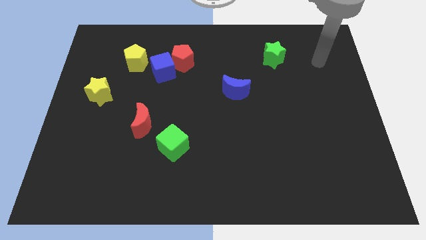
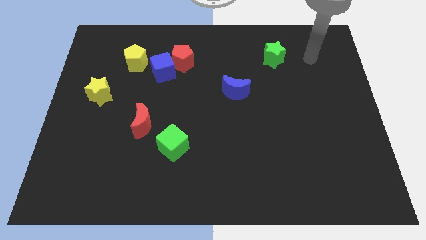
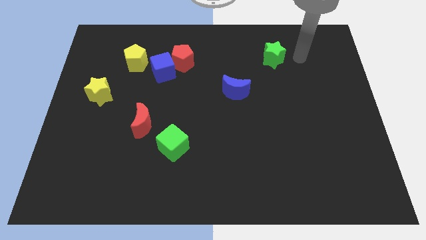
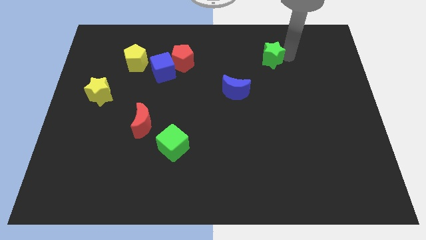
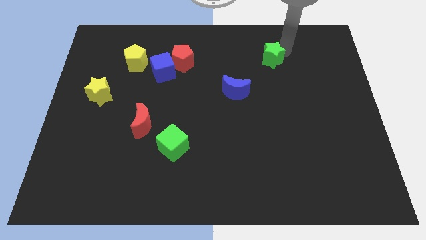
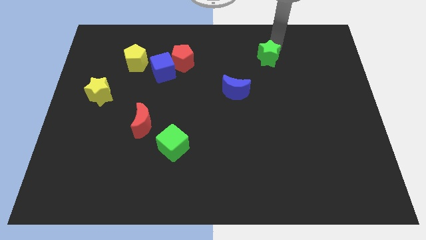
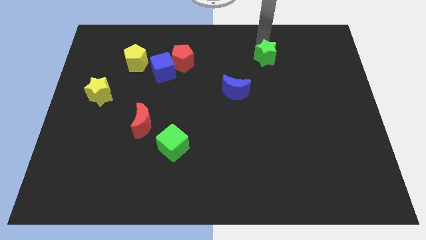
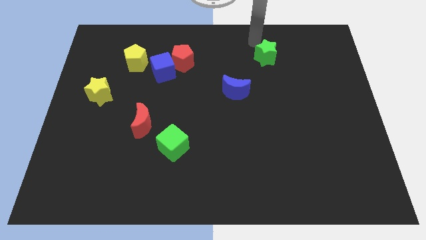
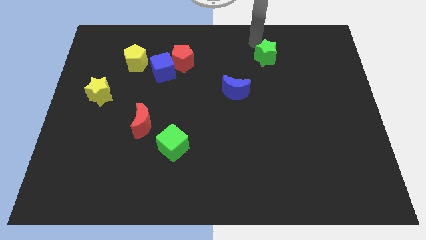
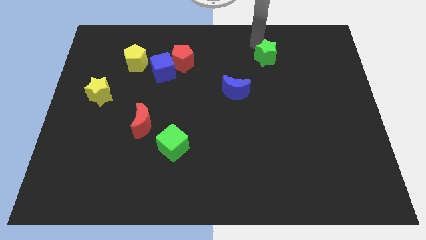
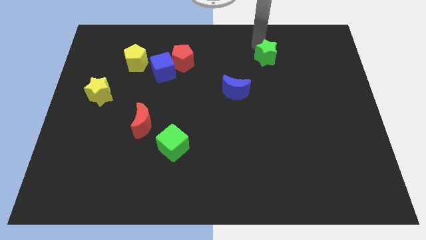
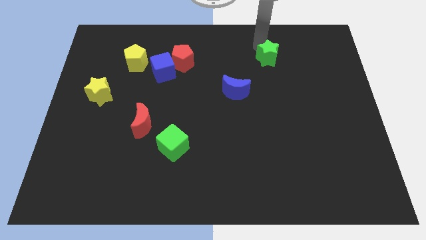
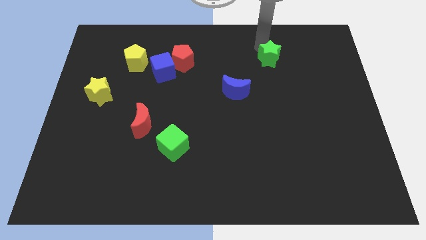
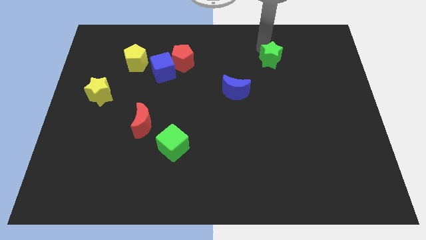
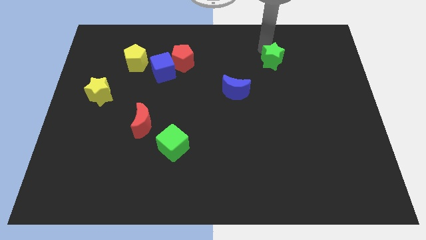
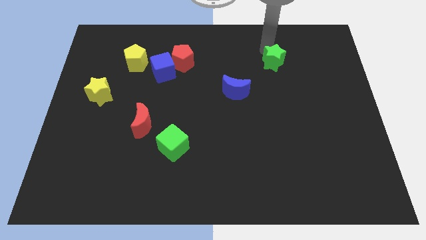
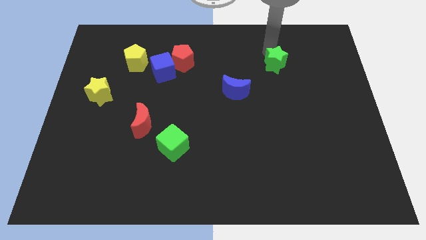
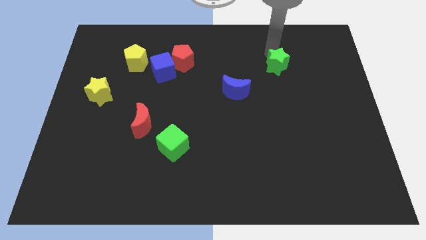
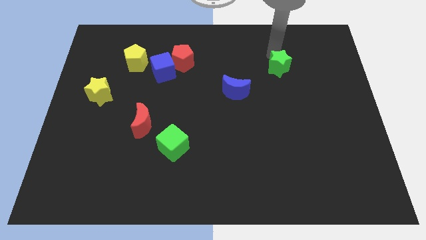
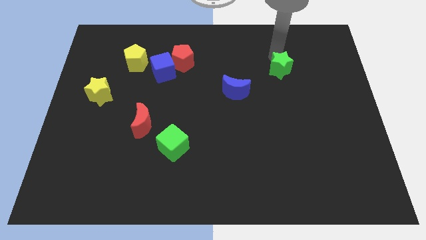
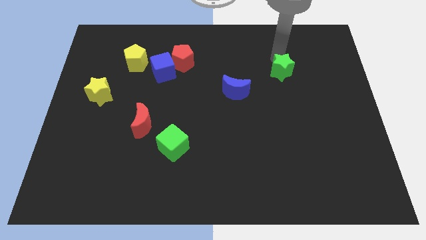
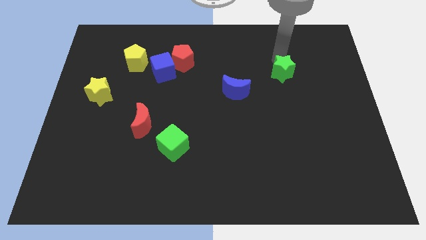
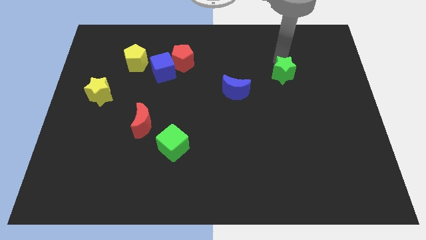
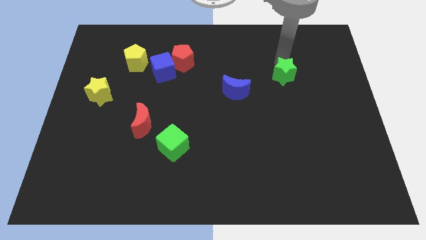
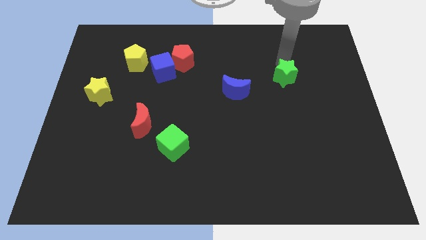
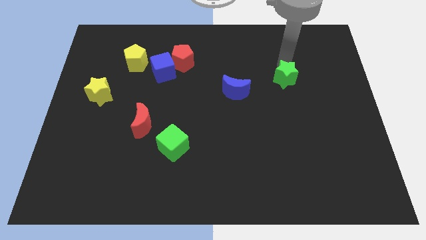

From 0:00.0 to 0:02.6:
push the green star down slightly

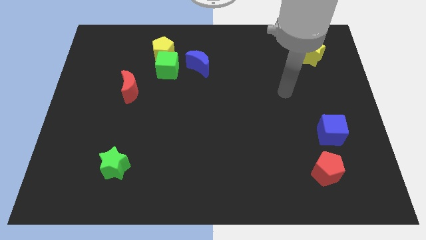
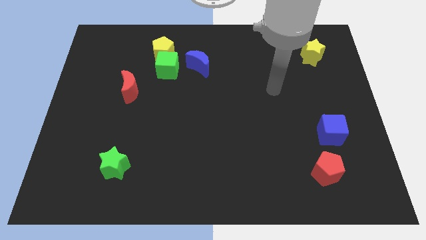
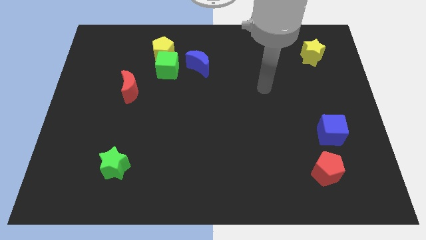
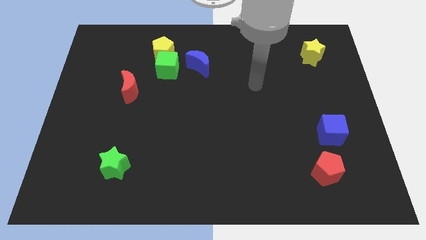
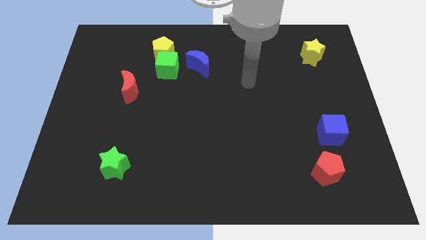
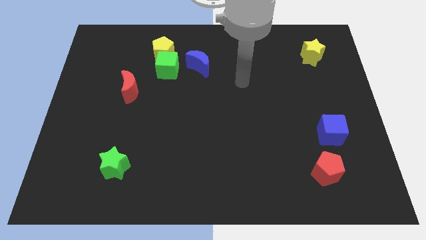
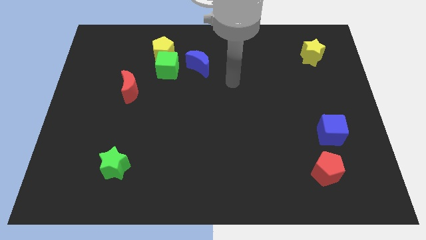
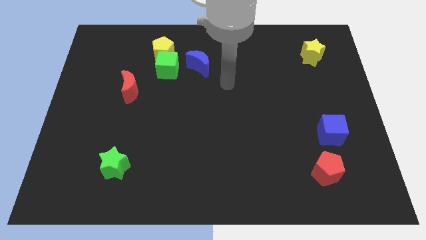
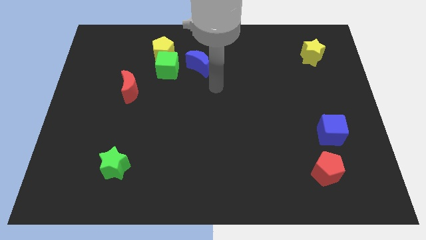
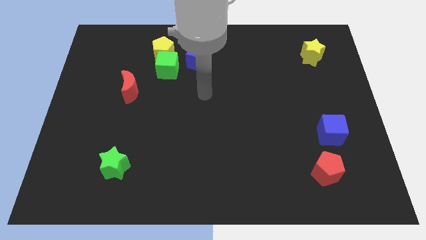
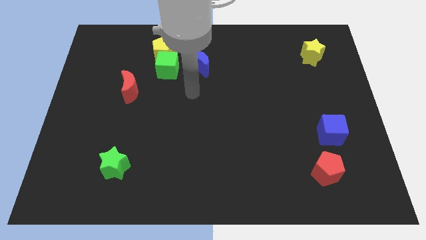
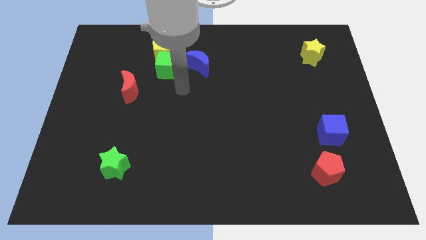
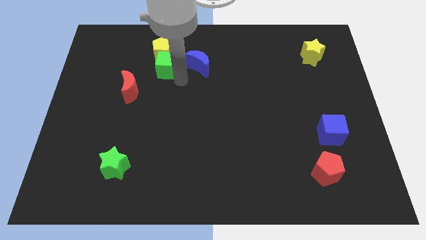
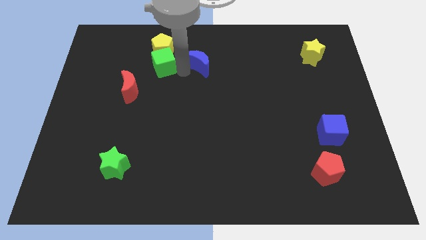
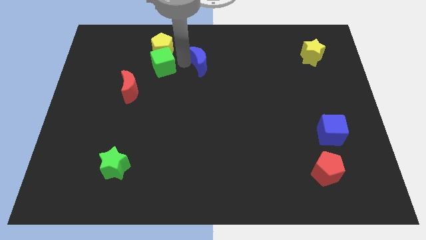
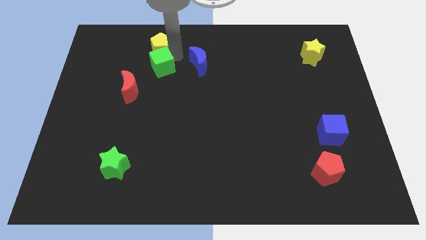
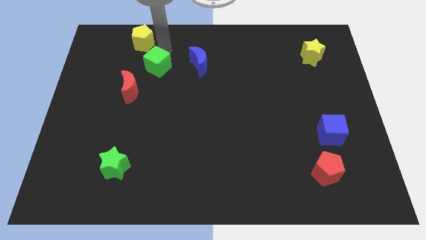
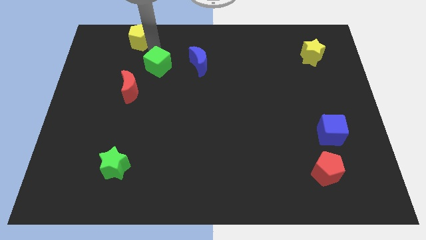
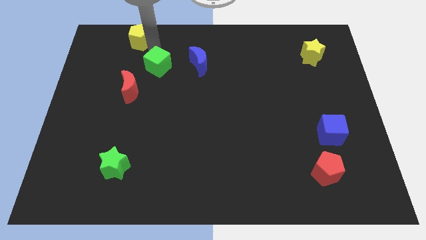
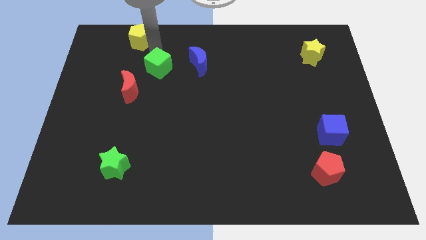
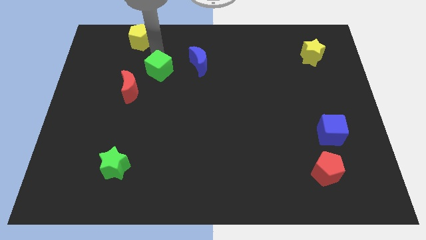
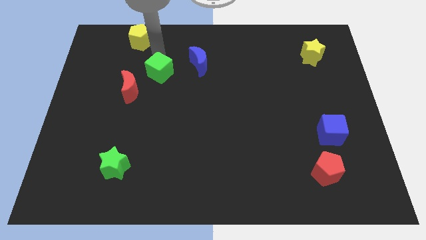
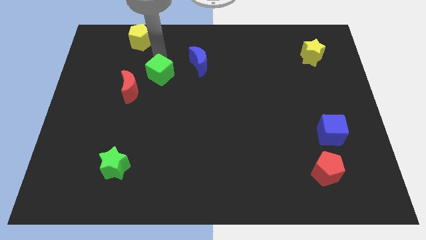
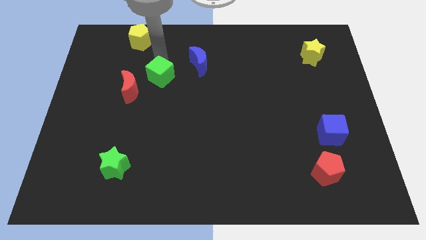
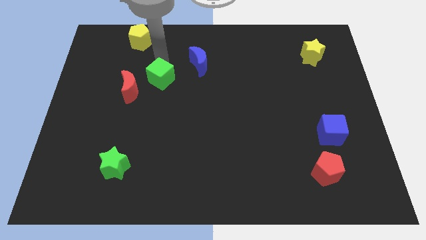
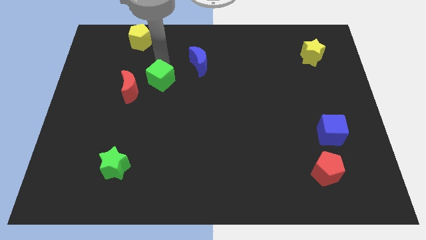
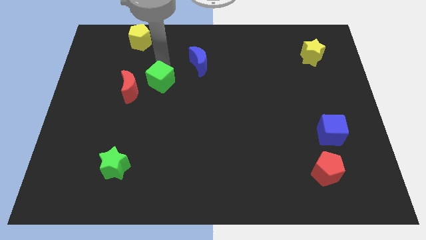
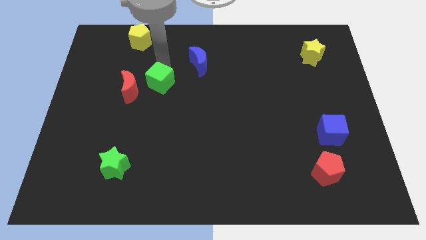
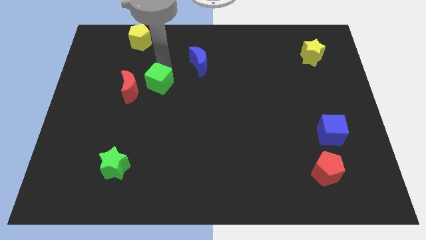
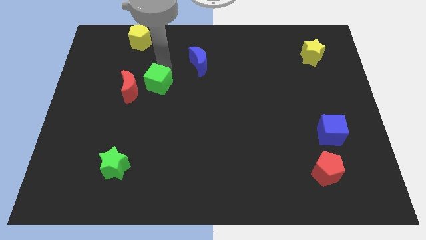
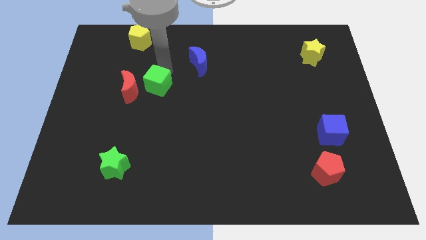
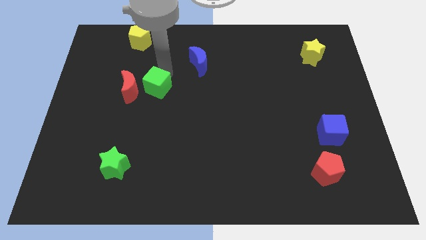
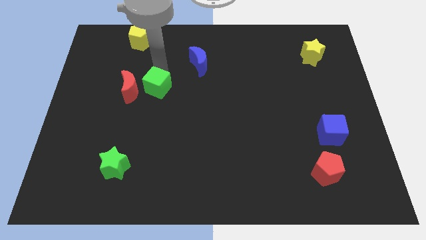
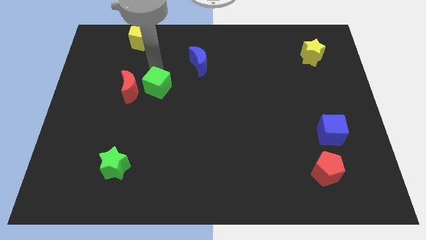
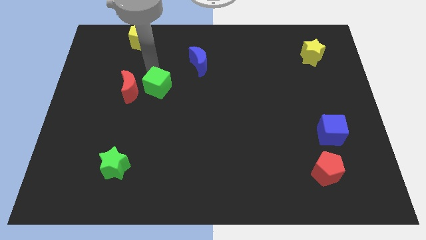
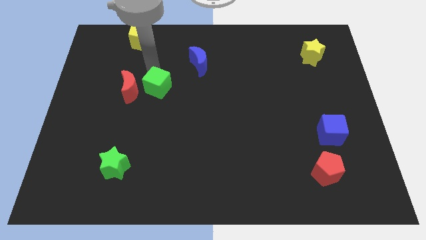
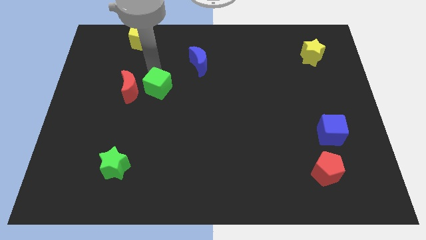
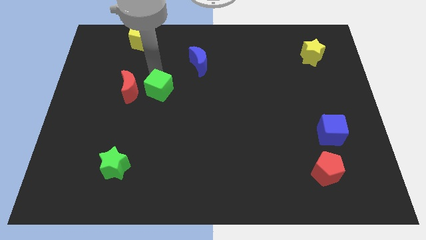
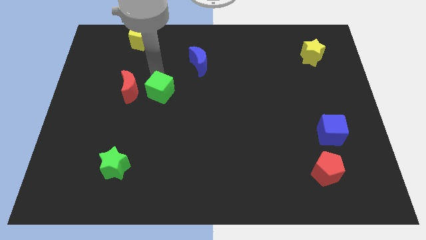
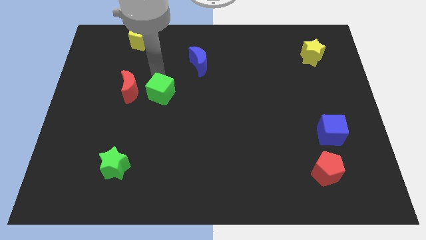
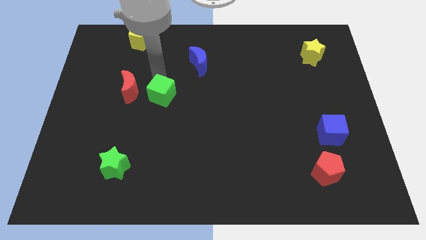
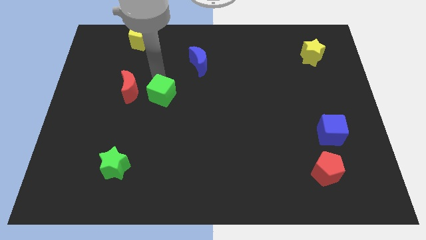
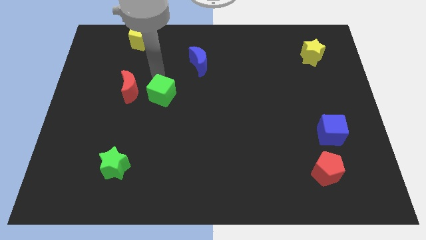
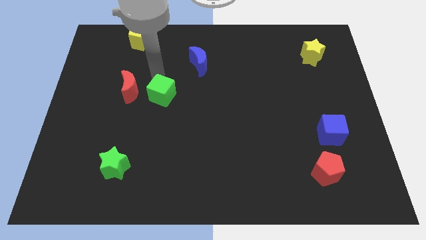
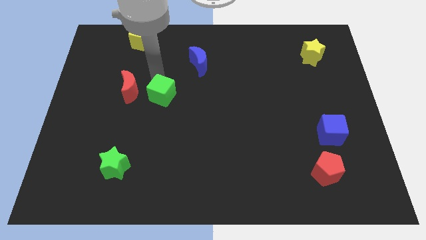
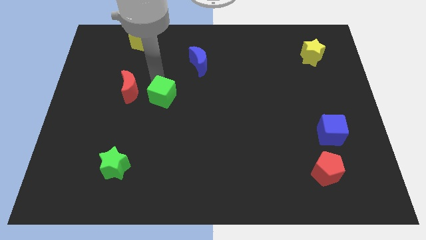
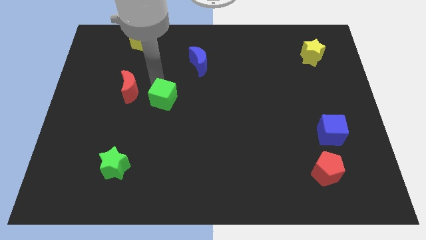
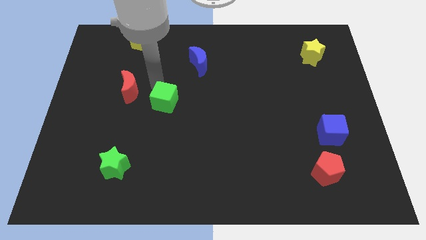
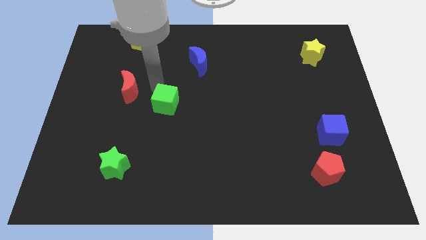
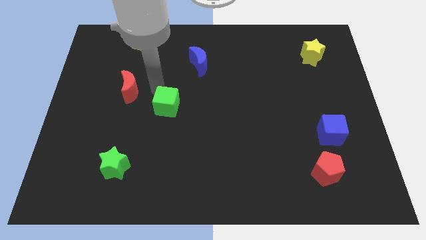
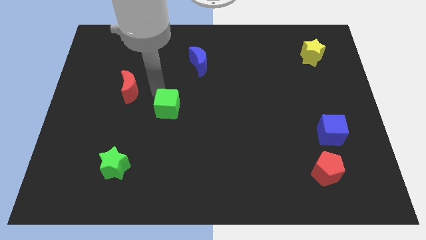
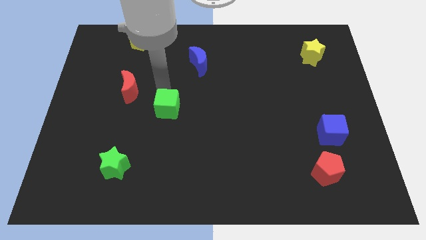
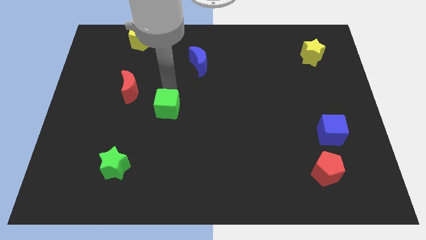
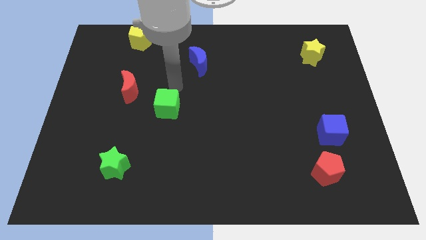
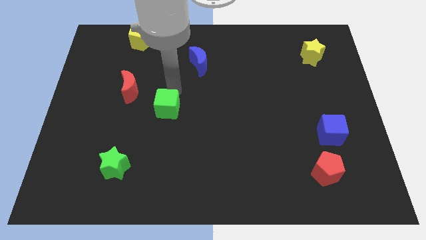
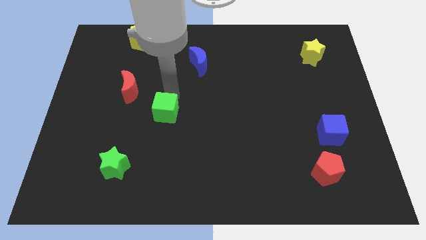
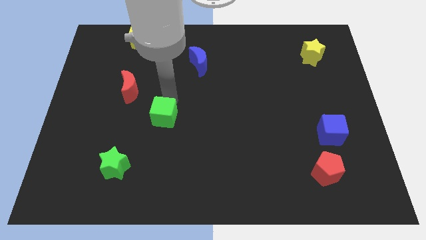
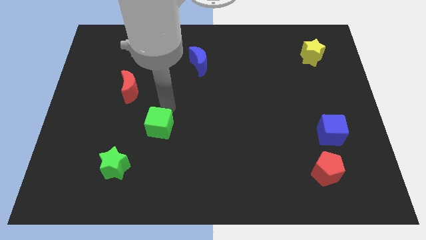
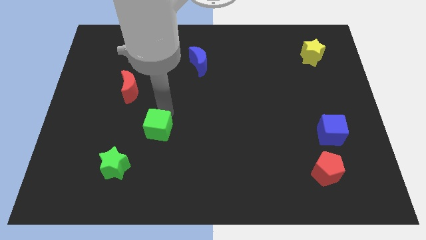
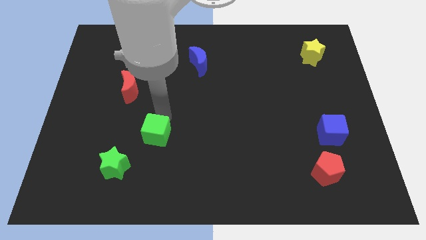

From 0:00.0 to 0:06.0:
slide the green cube downwards

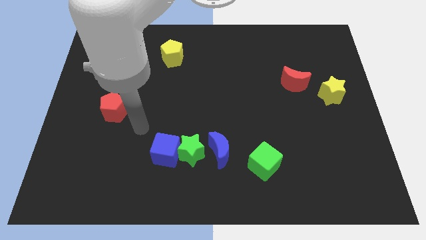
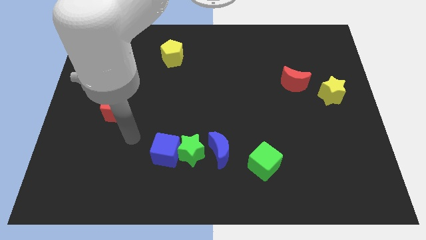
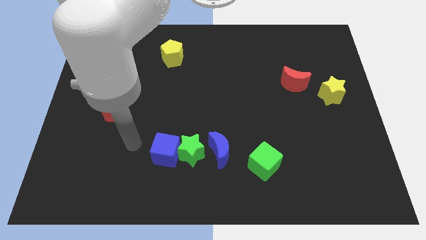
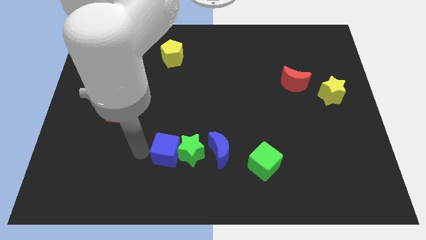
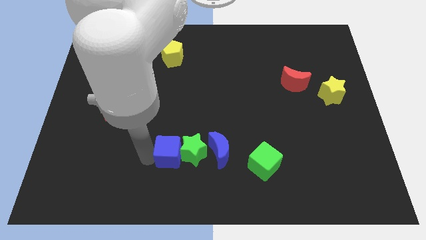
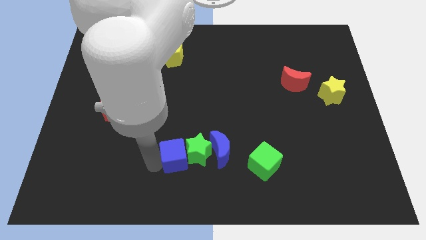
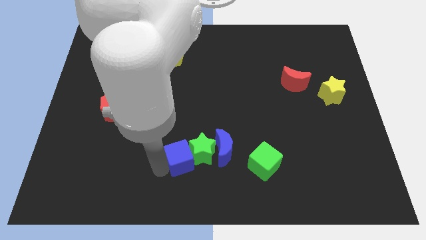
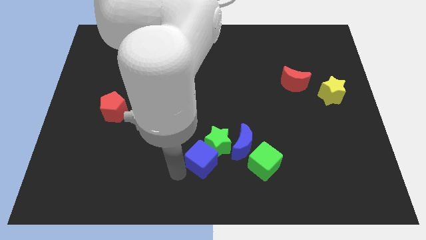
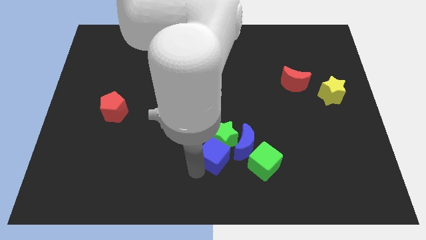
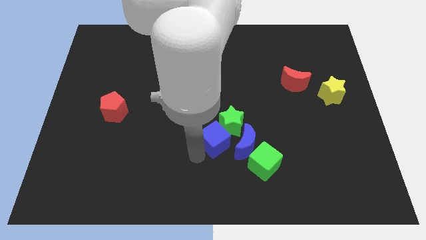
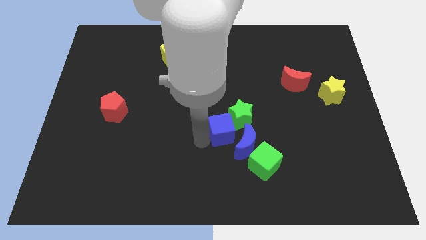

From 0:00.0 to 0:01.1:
slide the green star a bit right
